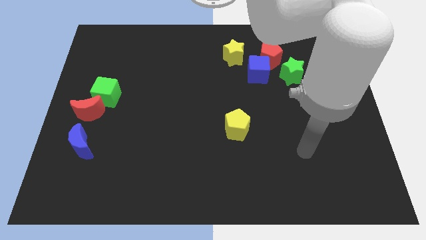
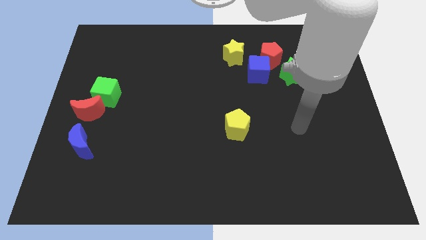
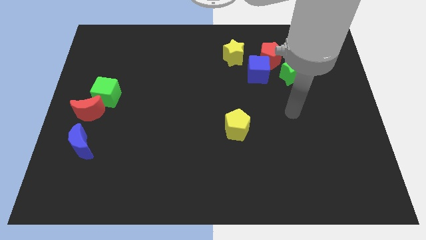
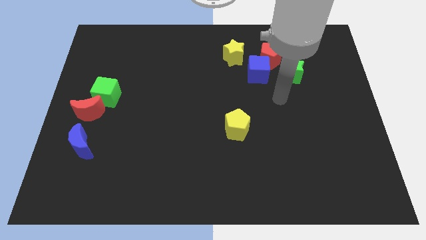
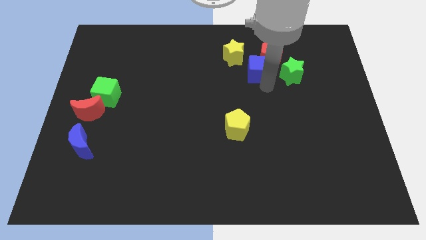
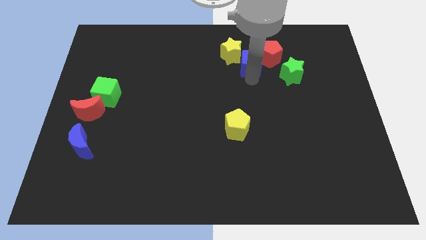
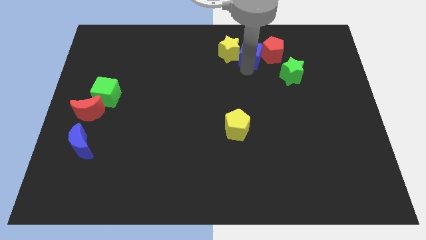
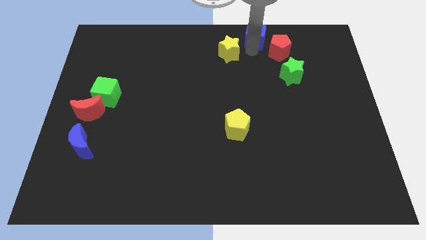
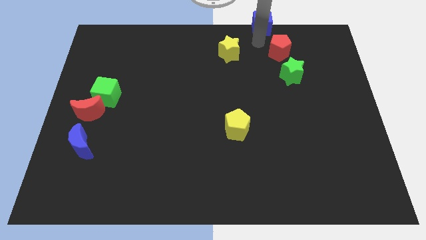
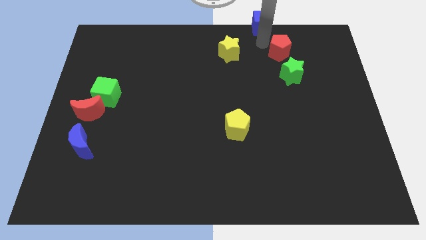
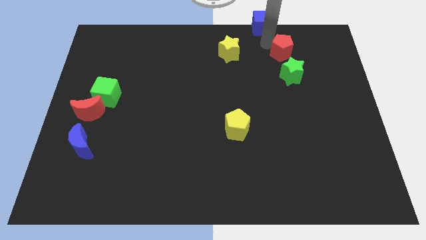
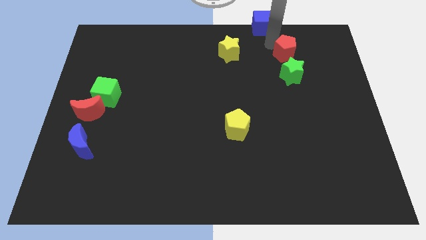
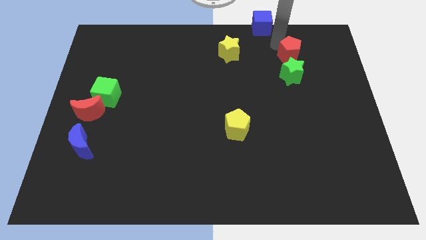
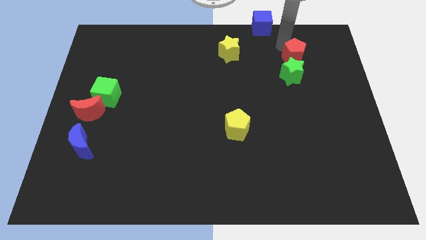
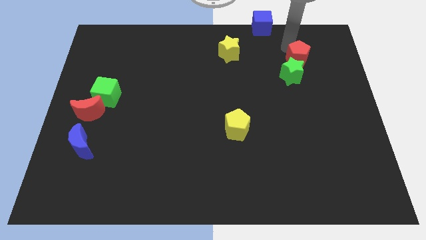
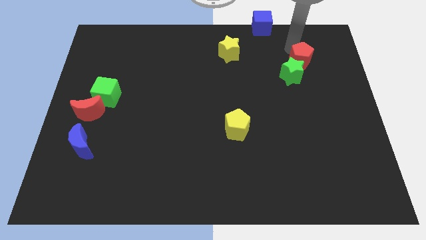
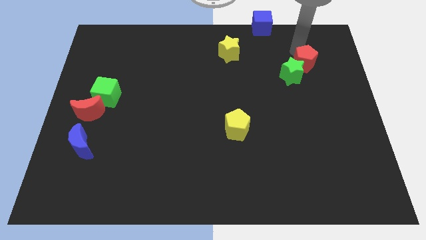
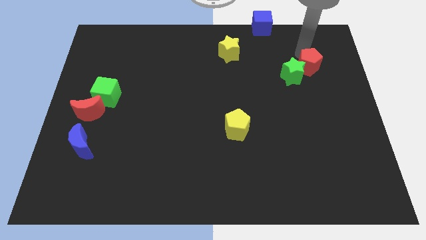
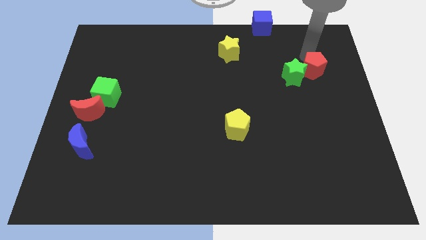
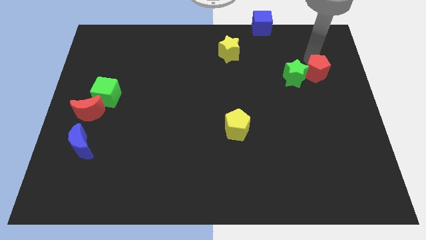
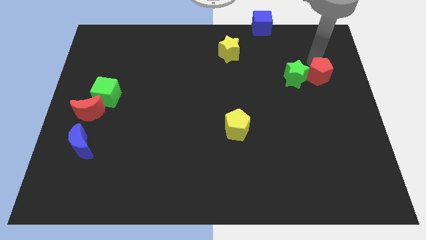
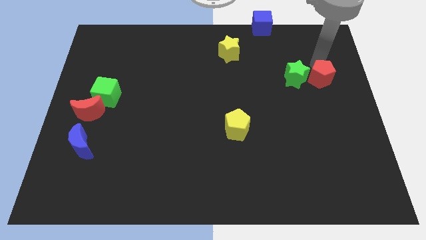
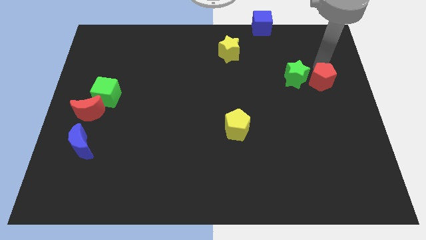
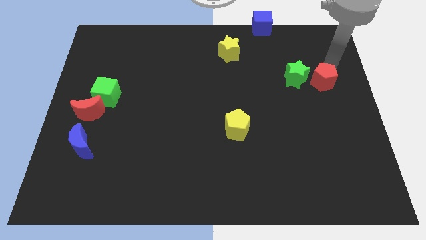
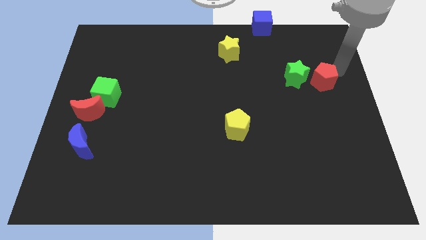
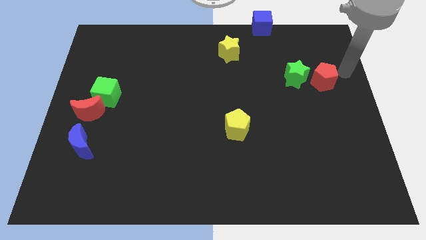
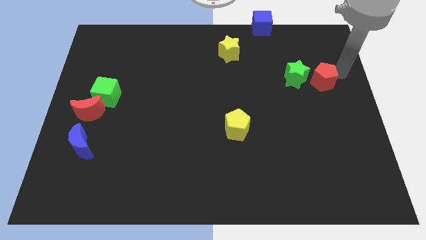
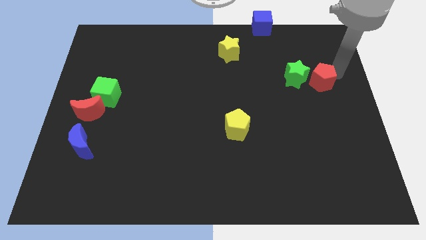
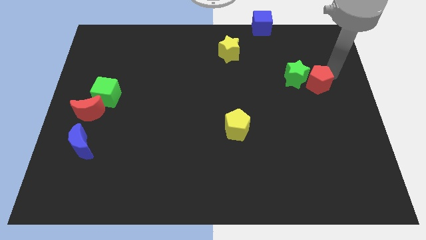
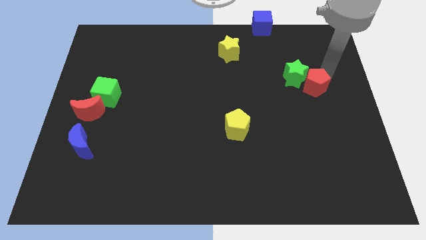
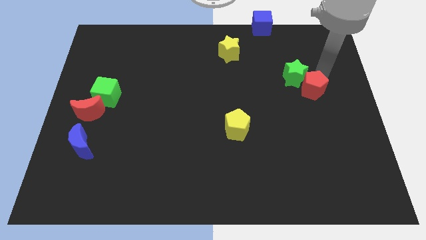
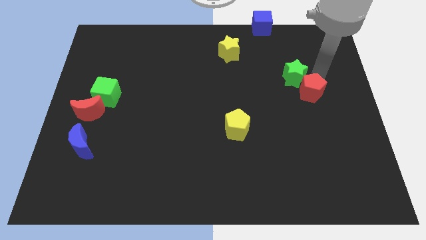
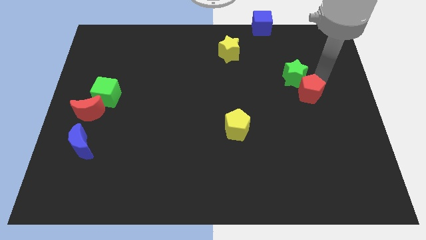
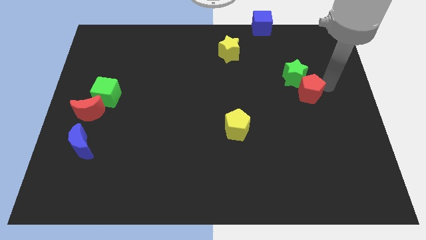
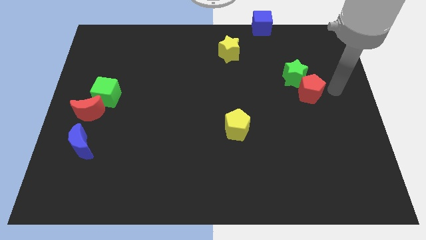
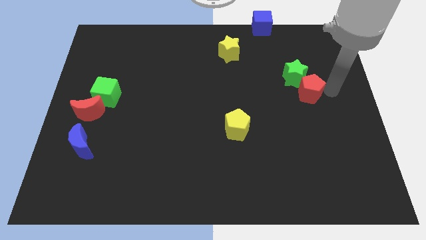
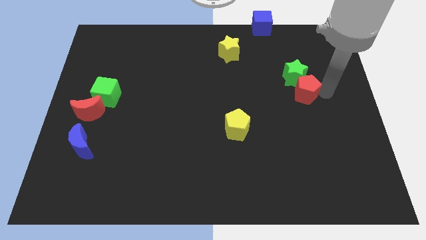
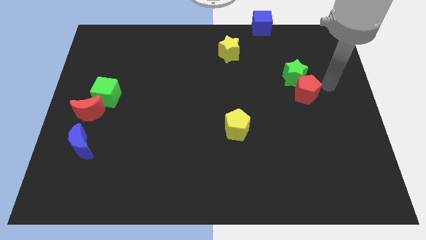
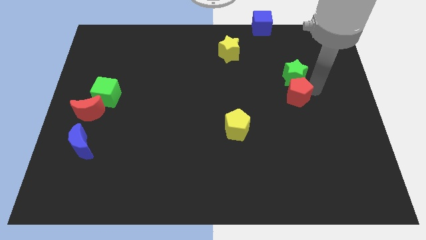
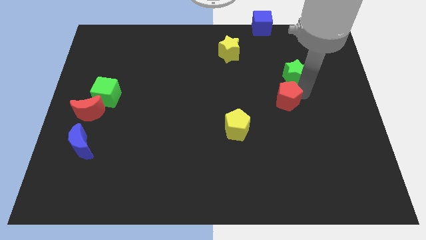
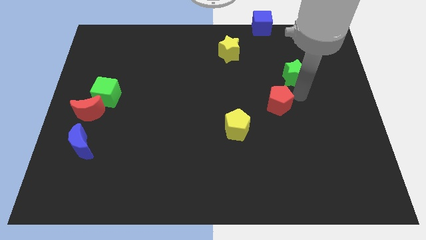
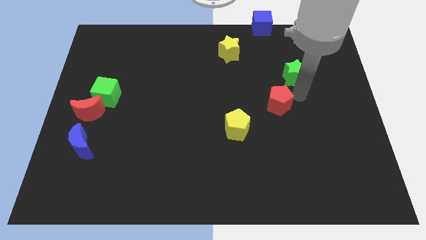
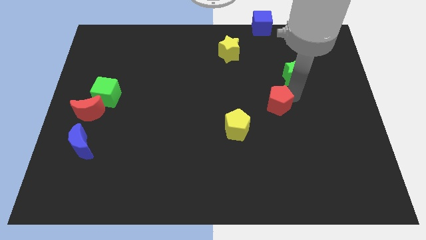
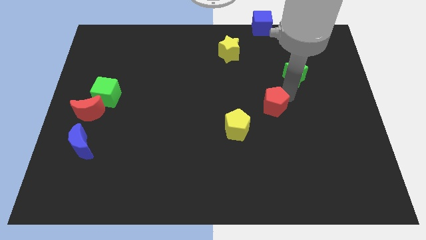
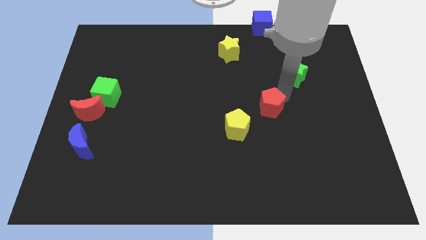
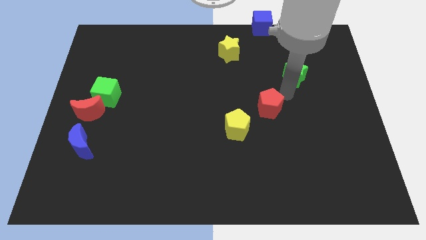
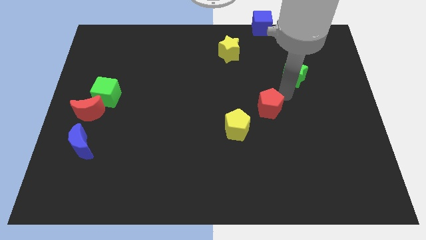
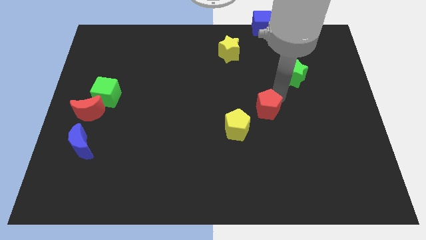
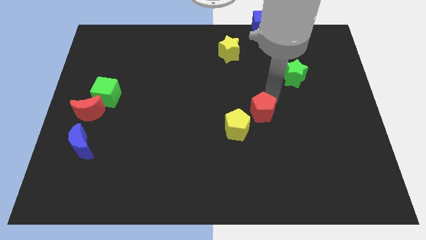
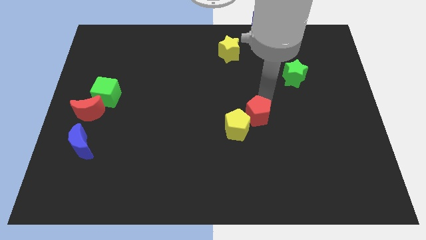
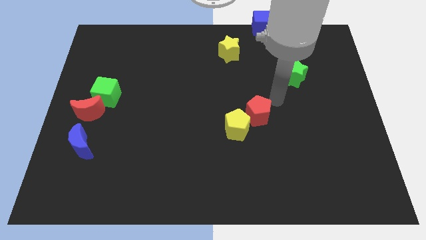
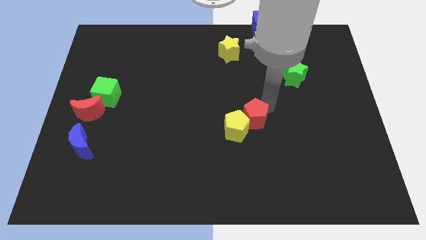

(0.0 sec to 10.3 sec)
push the red pentagon next to the yellow pentagon

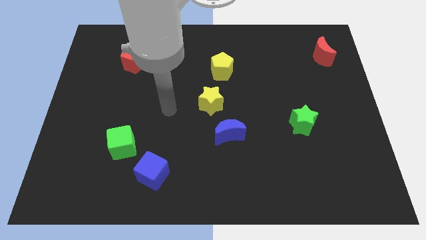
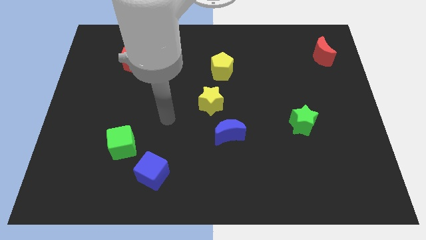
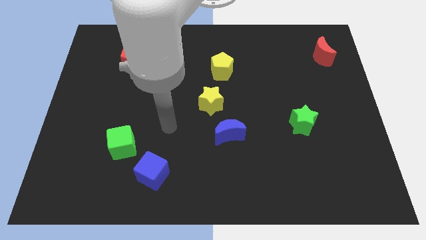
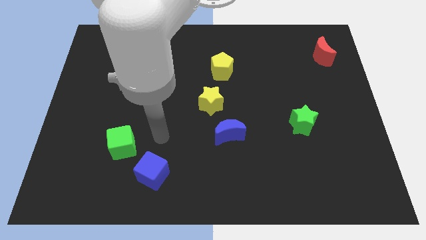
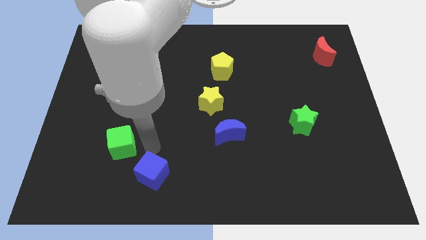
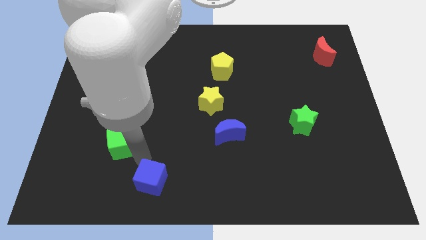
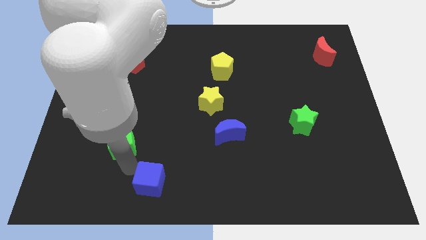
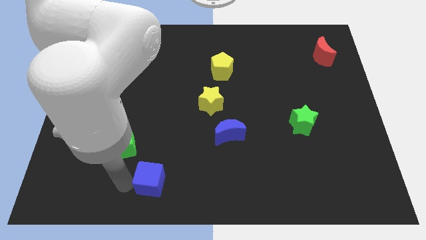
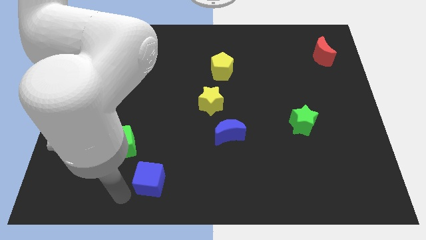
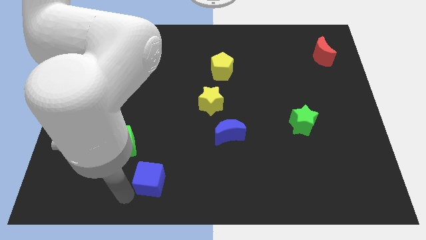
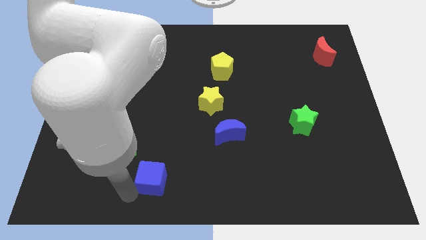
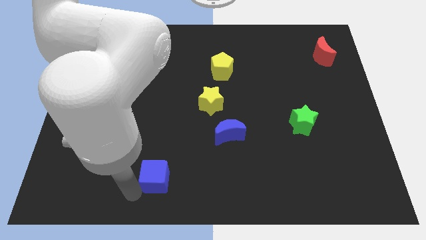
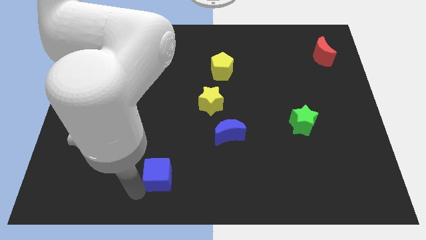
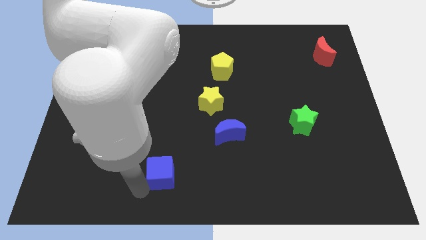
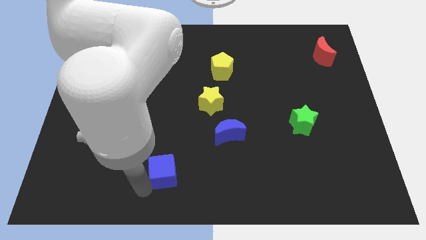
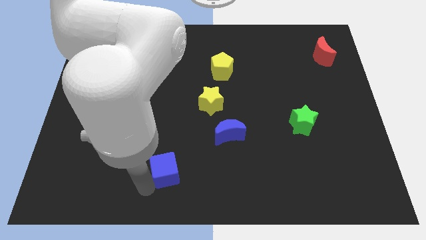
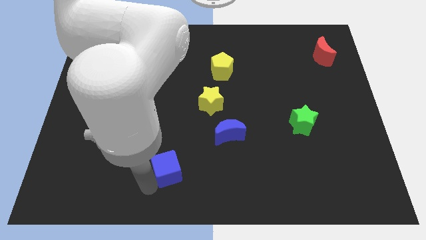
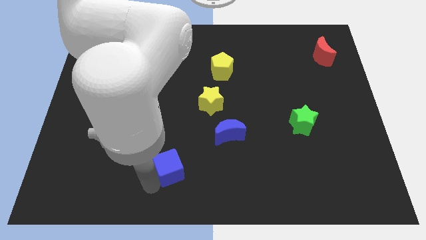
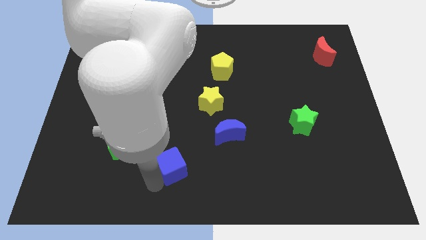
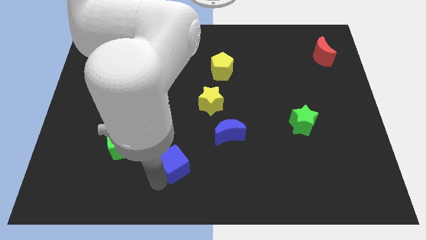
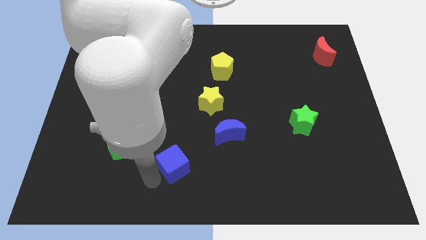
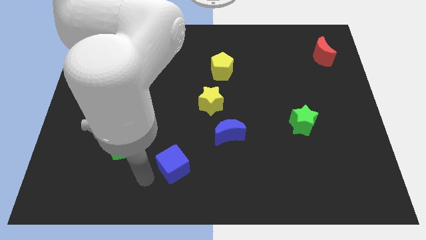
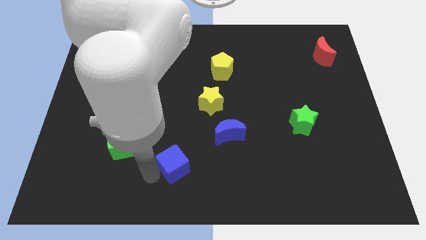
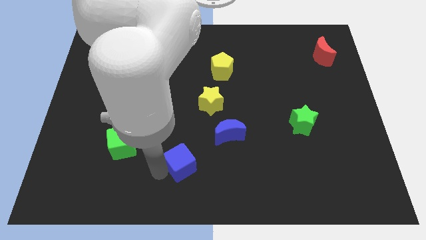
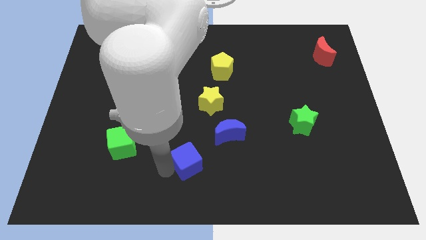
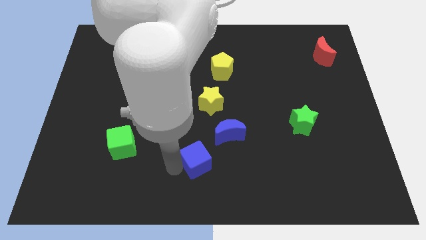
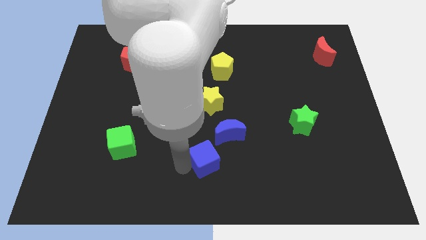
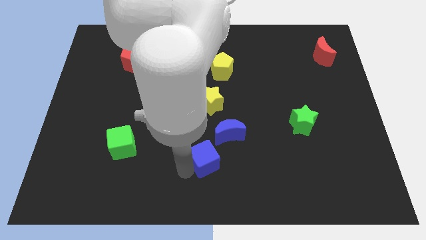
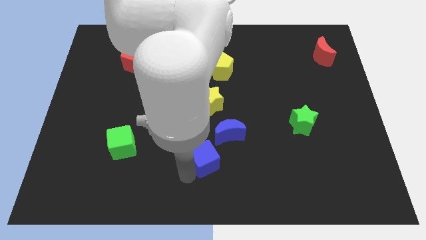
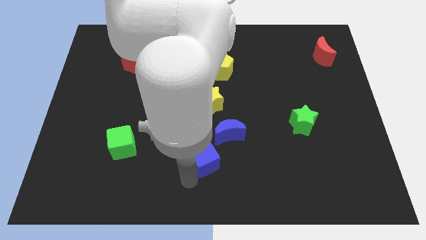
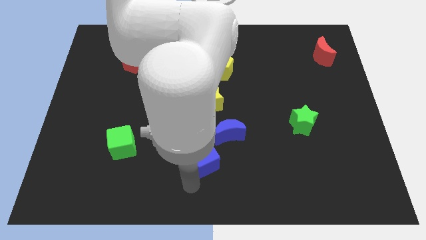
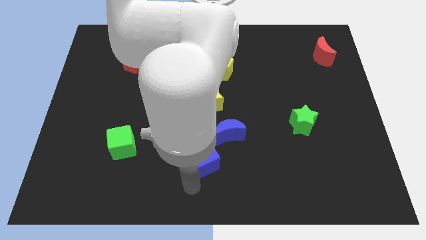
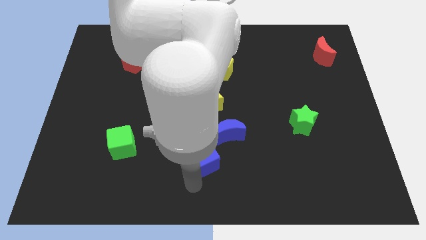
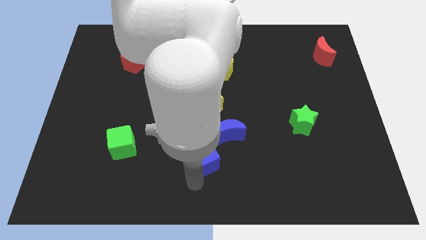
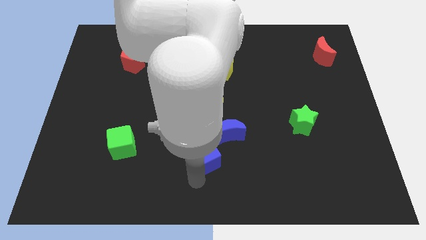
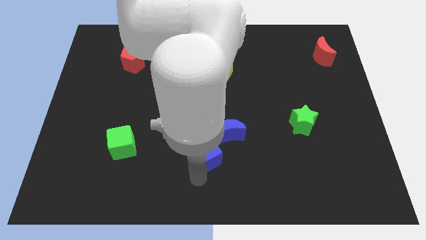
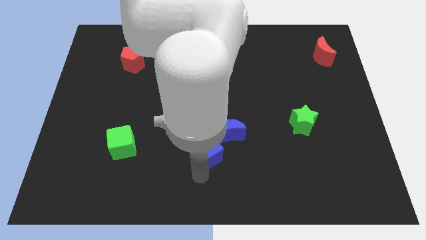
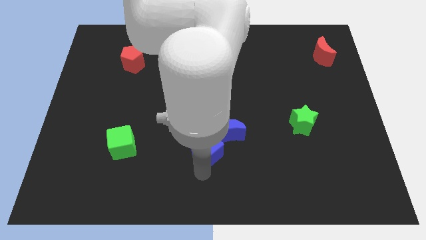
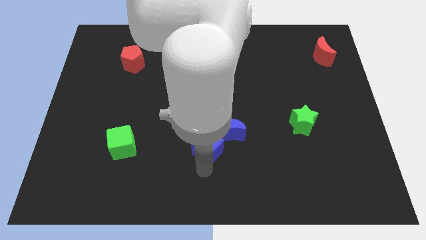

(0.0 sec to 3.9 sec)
push the blue cube close to the blue moon
